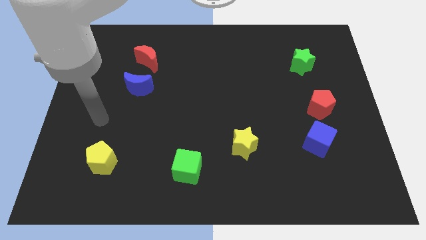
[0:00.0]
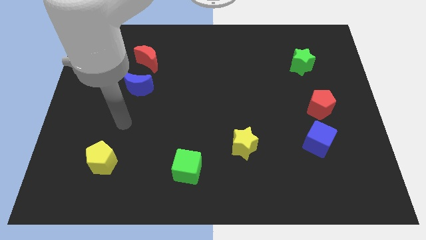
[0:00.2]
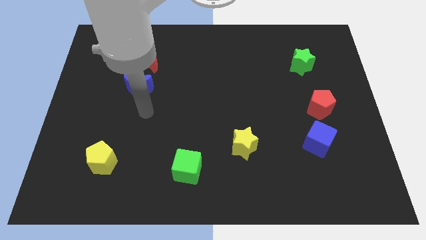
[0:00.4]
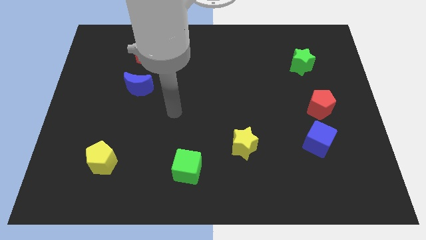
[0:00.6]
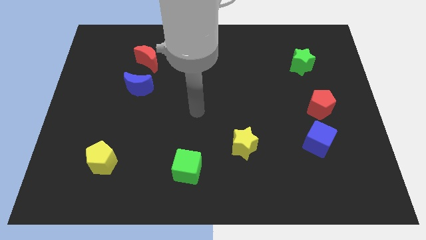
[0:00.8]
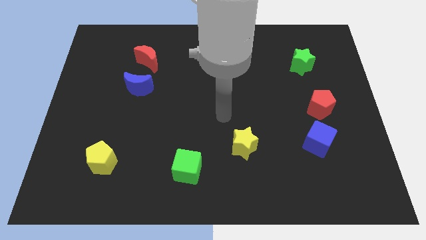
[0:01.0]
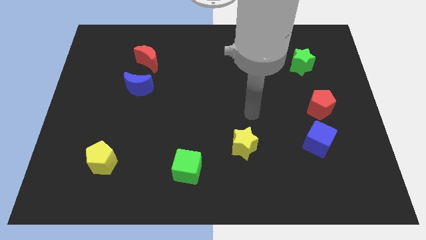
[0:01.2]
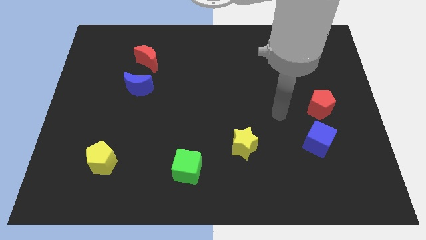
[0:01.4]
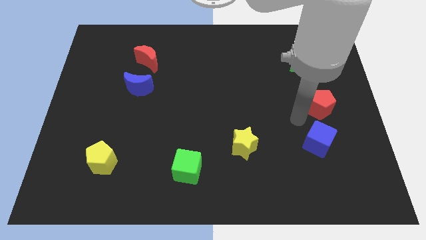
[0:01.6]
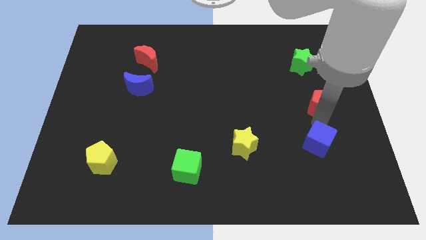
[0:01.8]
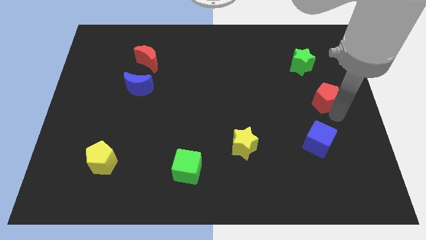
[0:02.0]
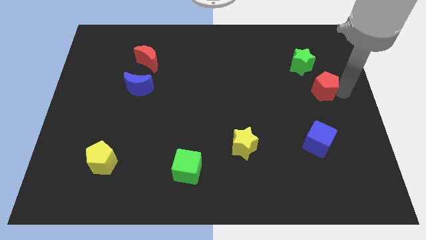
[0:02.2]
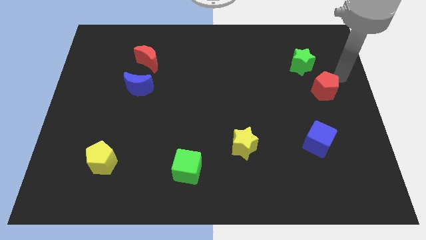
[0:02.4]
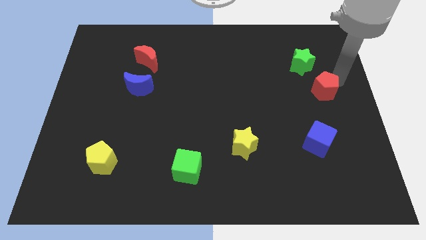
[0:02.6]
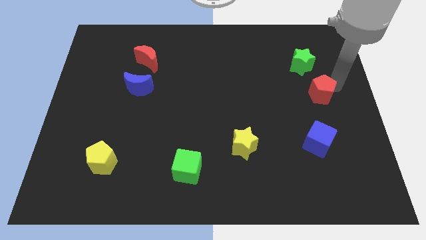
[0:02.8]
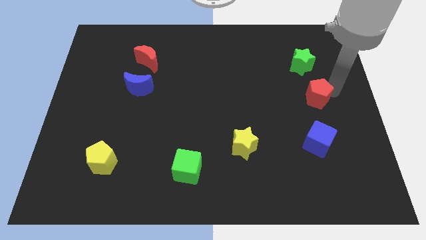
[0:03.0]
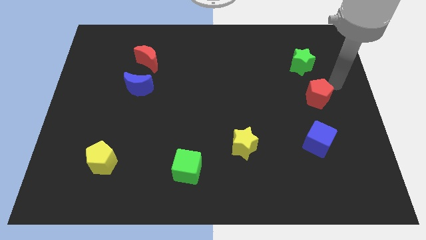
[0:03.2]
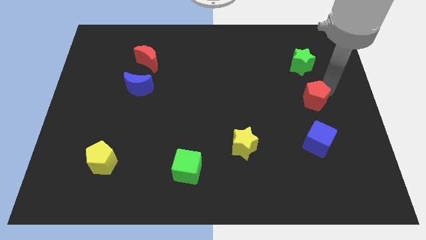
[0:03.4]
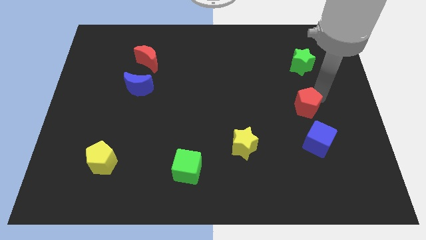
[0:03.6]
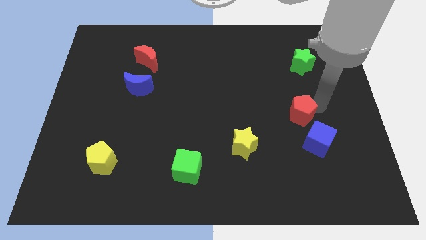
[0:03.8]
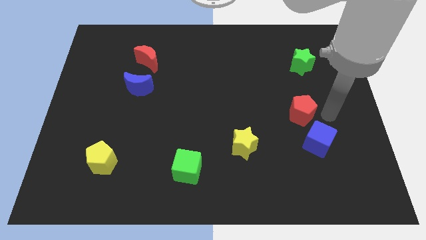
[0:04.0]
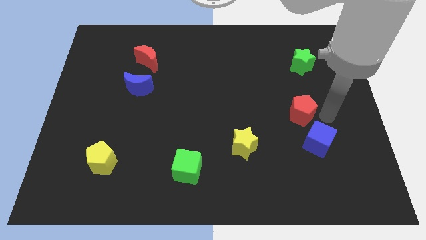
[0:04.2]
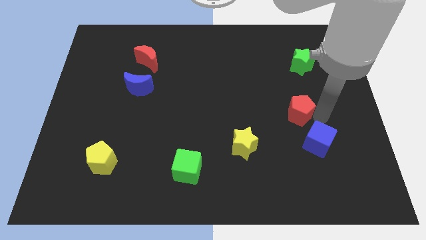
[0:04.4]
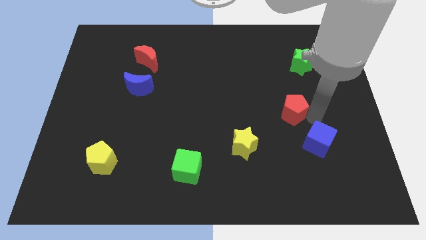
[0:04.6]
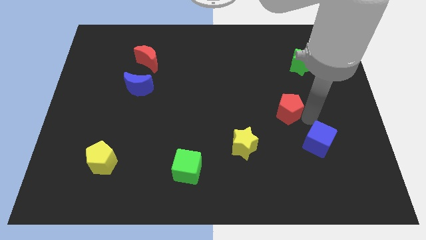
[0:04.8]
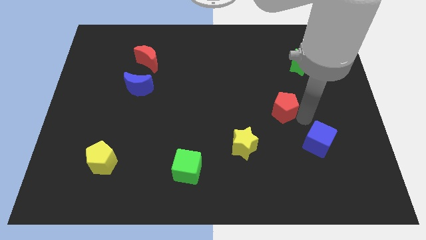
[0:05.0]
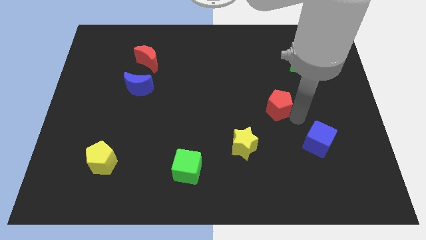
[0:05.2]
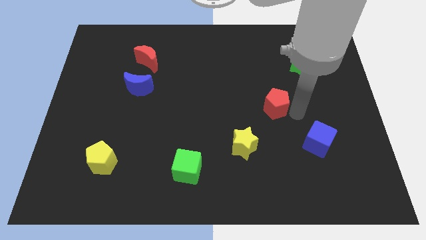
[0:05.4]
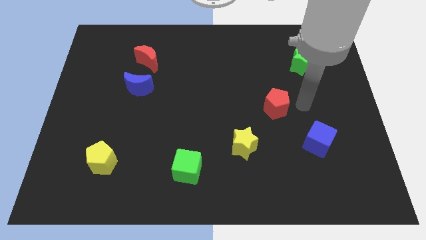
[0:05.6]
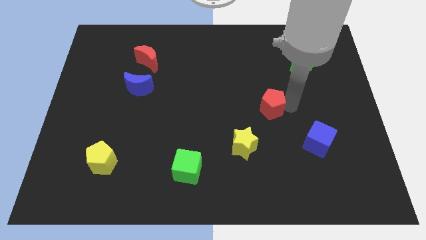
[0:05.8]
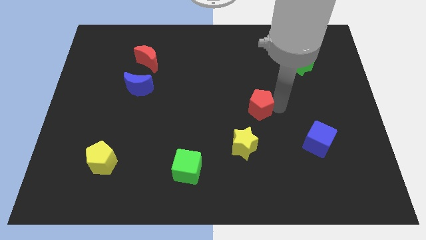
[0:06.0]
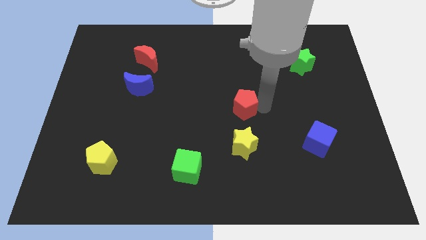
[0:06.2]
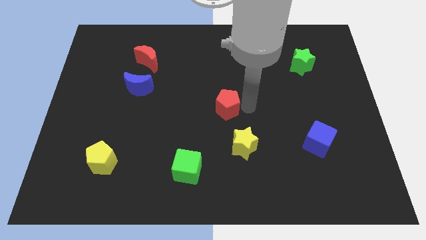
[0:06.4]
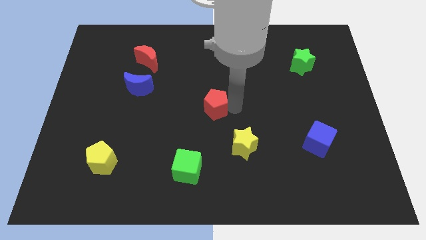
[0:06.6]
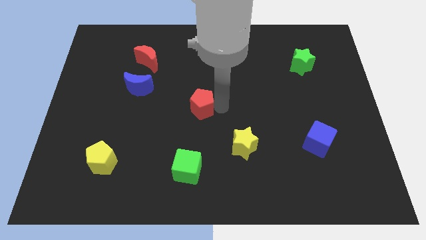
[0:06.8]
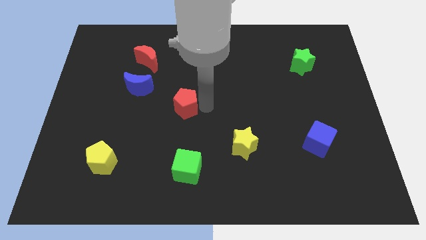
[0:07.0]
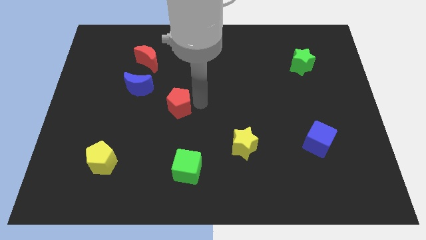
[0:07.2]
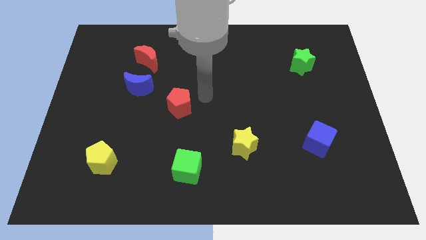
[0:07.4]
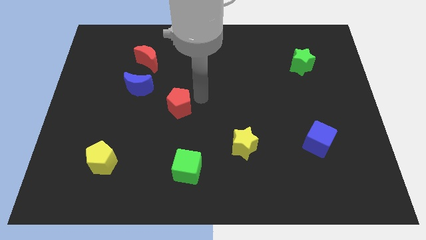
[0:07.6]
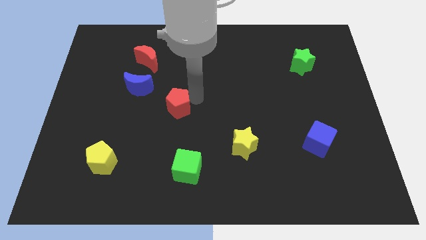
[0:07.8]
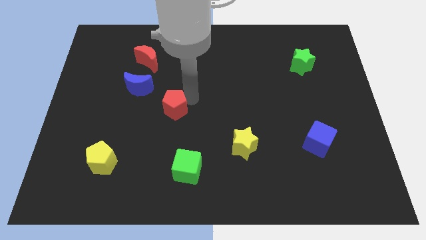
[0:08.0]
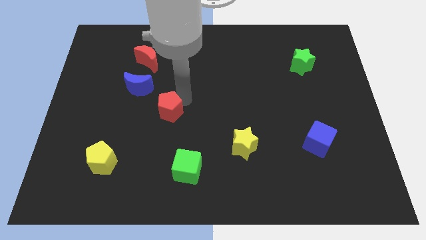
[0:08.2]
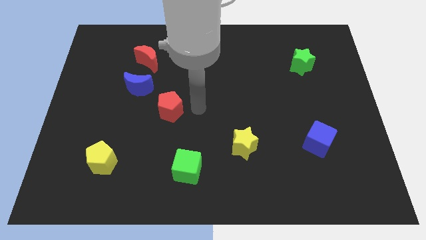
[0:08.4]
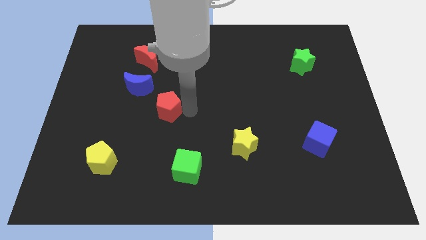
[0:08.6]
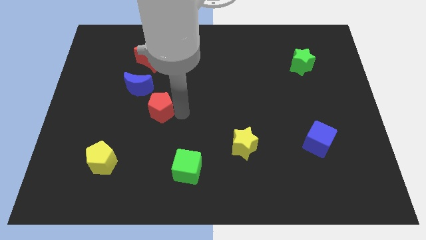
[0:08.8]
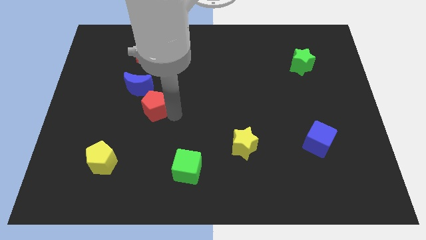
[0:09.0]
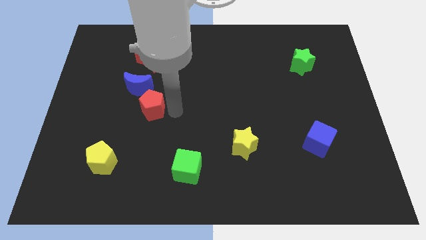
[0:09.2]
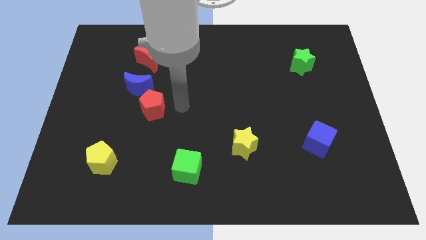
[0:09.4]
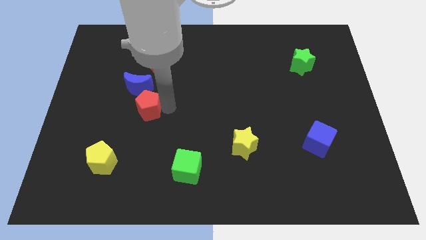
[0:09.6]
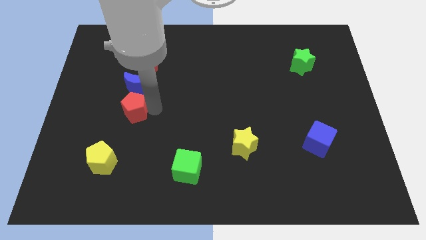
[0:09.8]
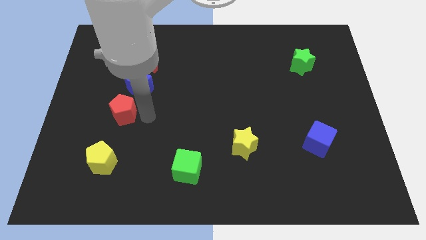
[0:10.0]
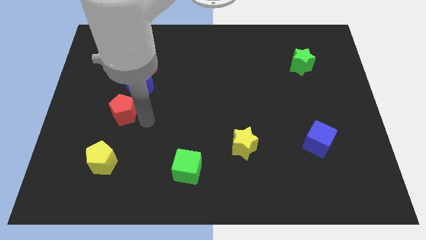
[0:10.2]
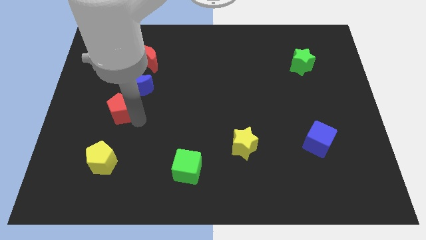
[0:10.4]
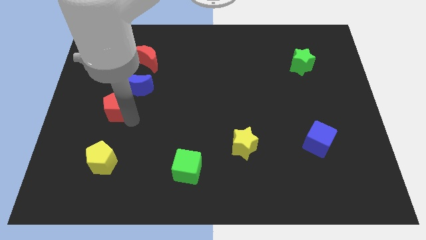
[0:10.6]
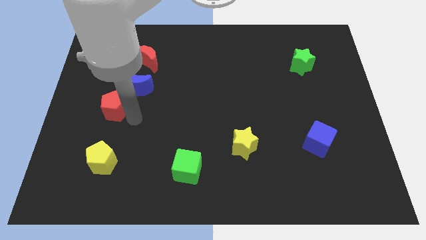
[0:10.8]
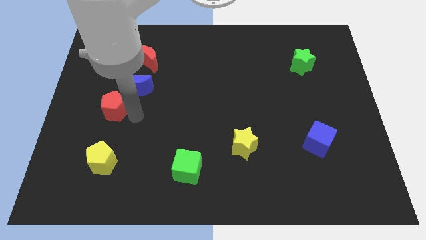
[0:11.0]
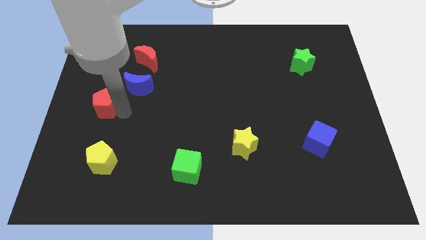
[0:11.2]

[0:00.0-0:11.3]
move the red pentagon to the center left
